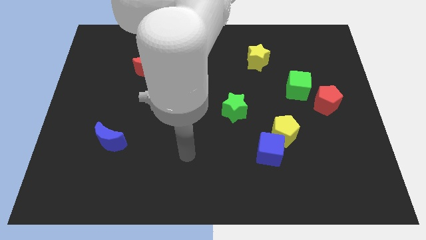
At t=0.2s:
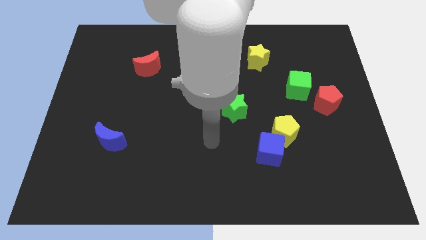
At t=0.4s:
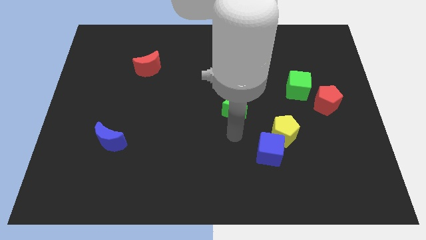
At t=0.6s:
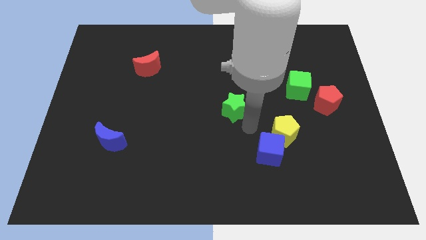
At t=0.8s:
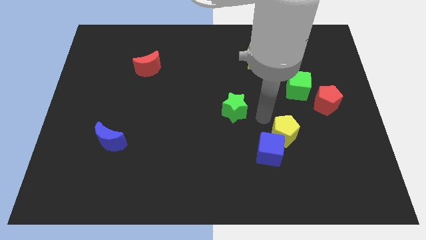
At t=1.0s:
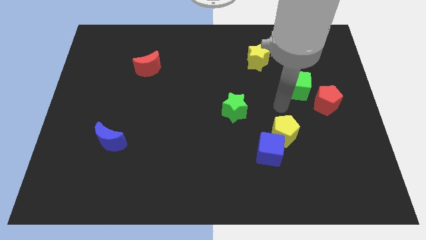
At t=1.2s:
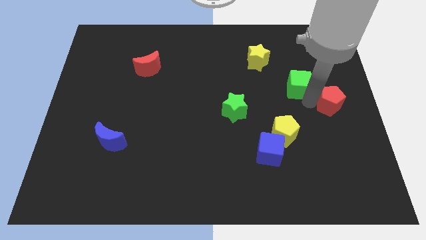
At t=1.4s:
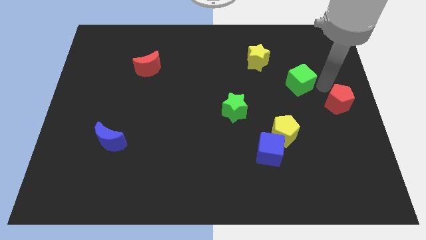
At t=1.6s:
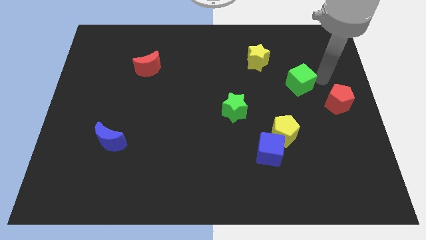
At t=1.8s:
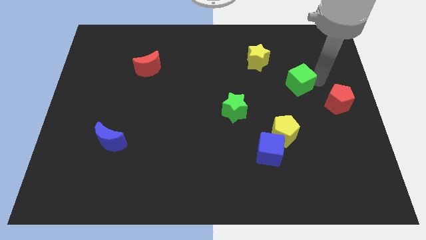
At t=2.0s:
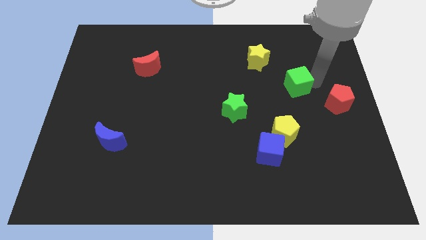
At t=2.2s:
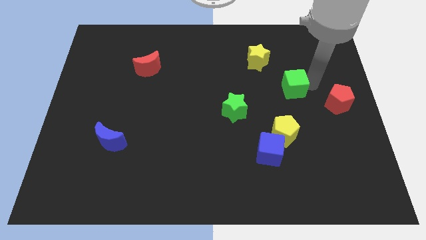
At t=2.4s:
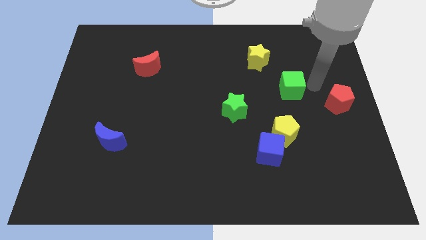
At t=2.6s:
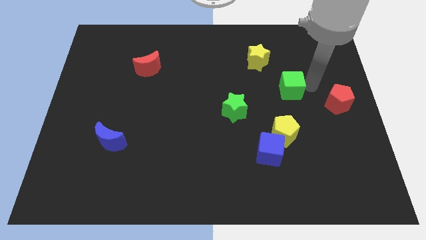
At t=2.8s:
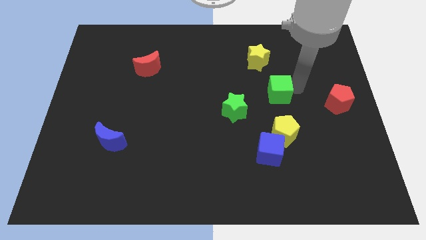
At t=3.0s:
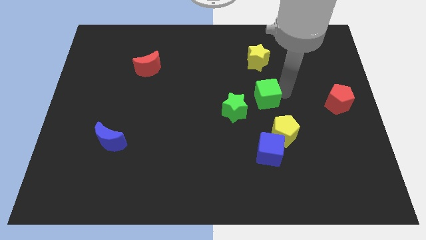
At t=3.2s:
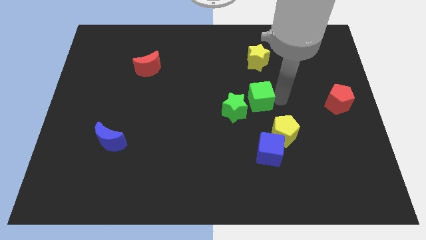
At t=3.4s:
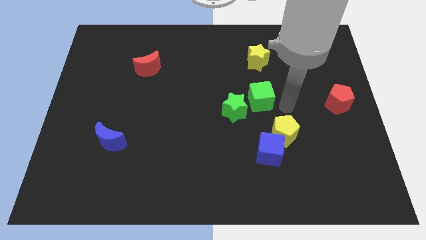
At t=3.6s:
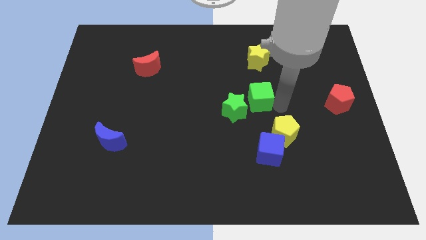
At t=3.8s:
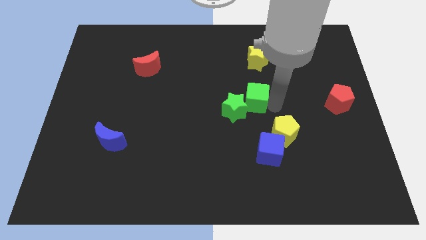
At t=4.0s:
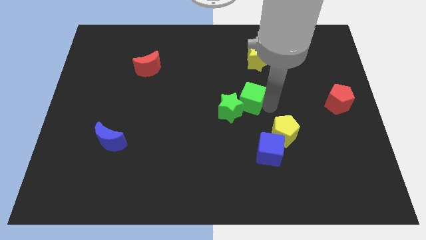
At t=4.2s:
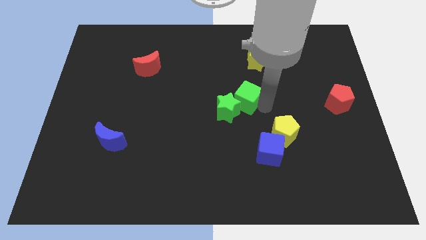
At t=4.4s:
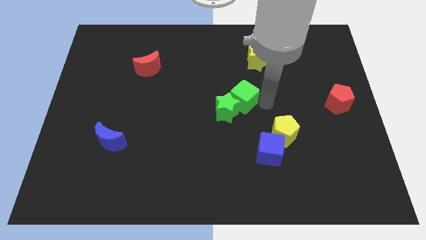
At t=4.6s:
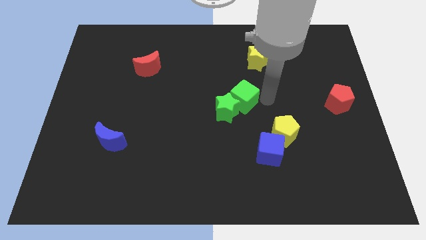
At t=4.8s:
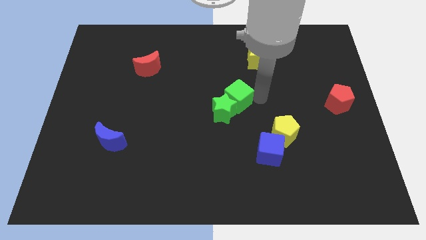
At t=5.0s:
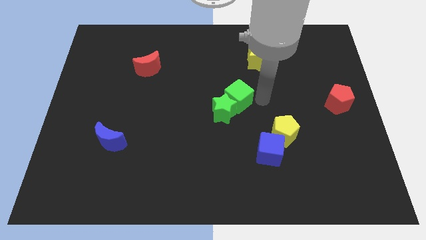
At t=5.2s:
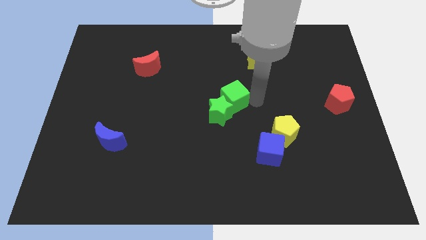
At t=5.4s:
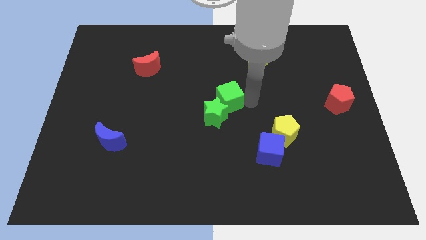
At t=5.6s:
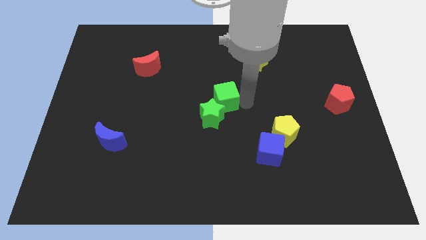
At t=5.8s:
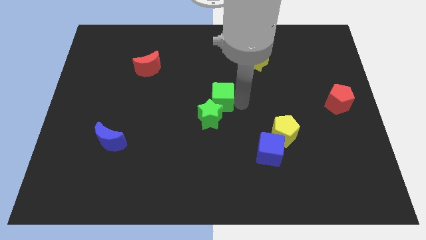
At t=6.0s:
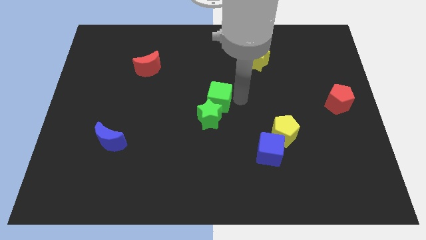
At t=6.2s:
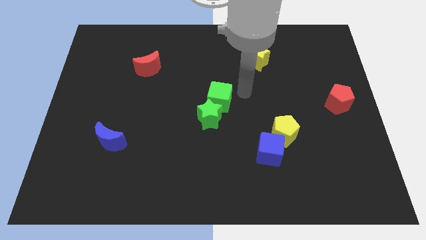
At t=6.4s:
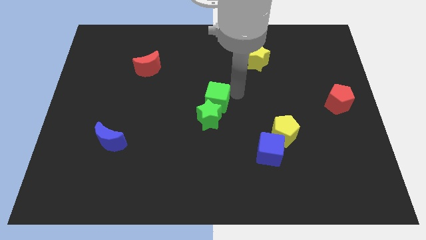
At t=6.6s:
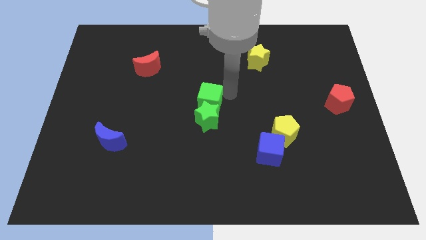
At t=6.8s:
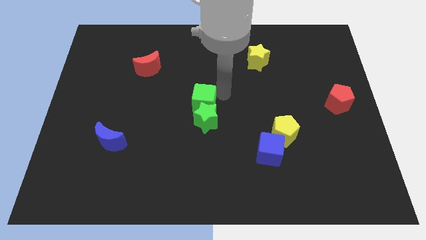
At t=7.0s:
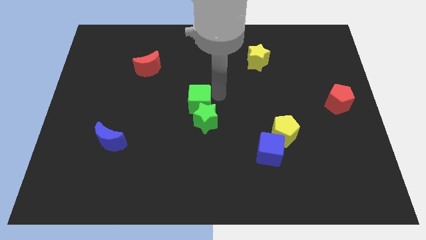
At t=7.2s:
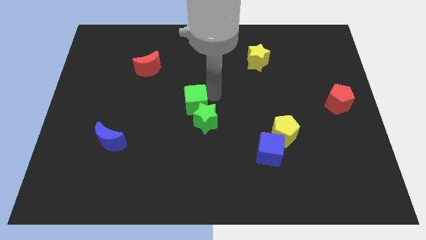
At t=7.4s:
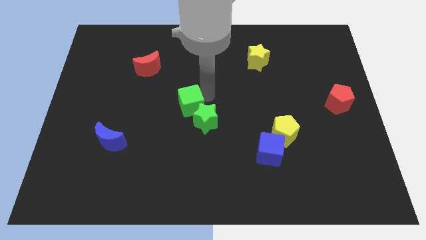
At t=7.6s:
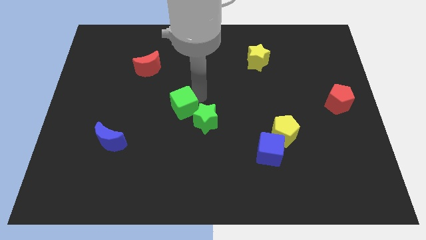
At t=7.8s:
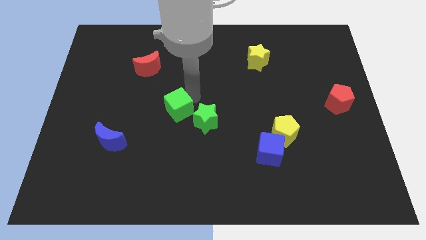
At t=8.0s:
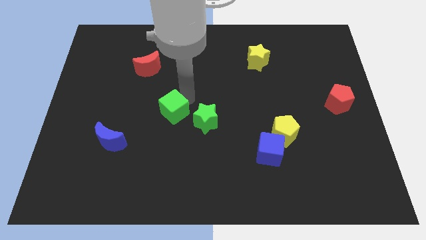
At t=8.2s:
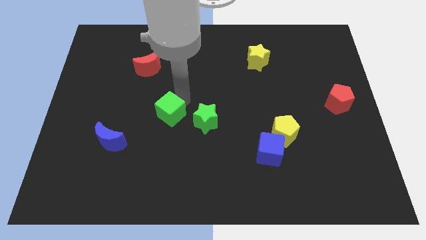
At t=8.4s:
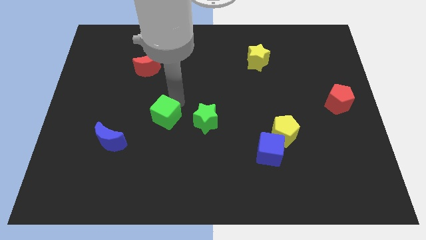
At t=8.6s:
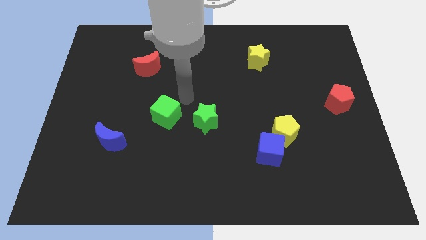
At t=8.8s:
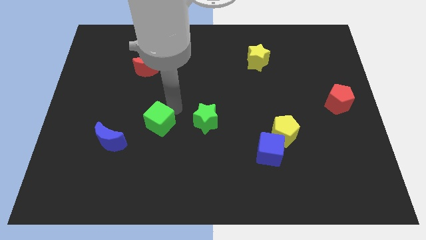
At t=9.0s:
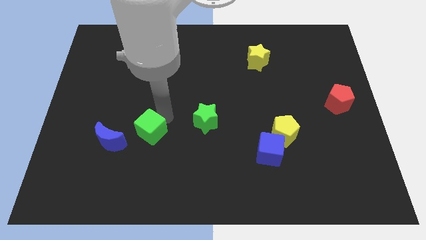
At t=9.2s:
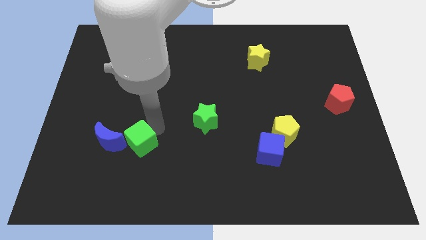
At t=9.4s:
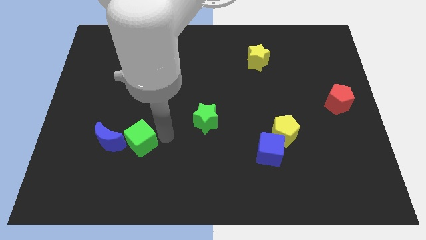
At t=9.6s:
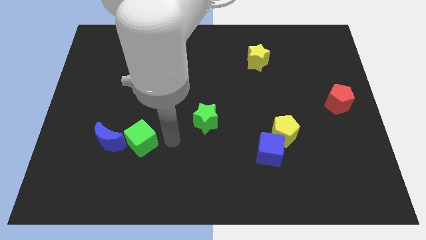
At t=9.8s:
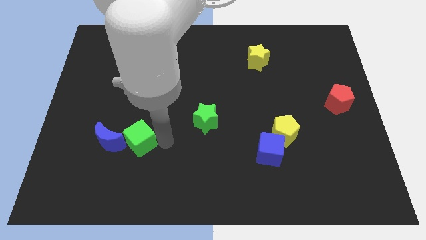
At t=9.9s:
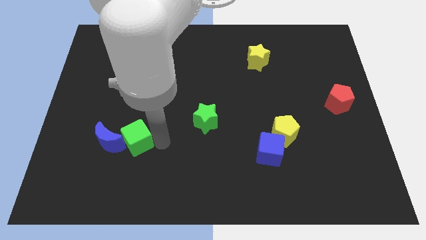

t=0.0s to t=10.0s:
slide the green cube towards the blue moon

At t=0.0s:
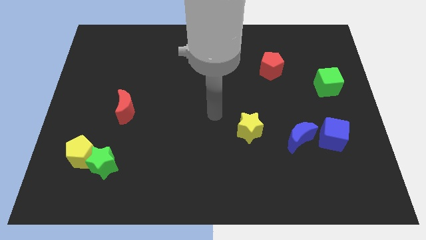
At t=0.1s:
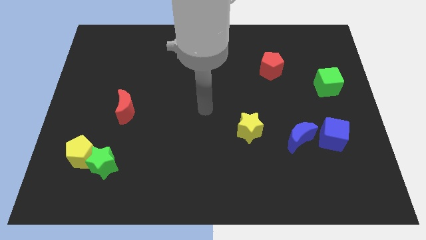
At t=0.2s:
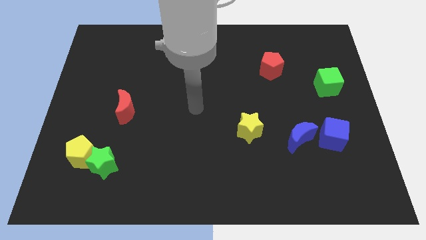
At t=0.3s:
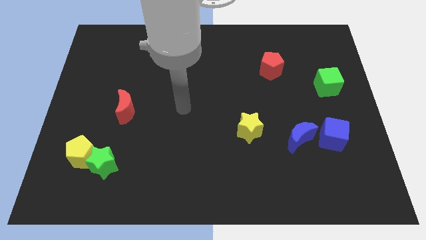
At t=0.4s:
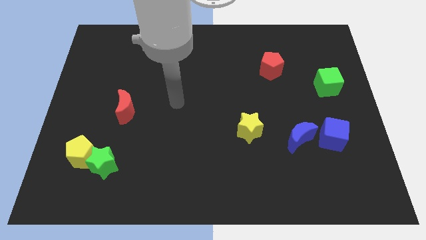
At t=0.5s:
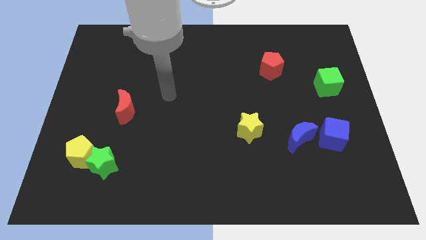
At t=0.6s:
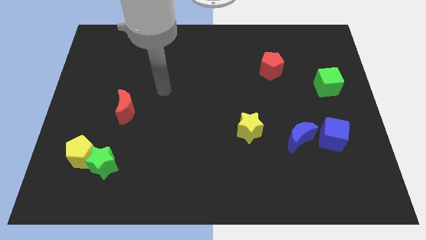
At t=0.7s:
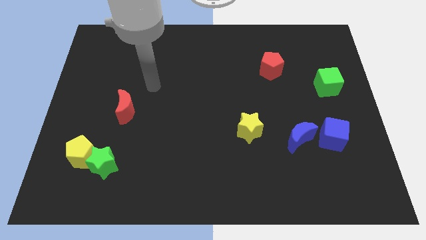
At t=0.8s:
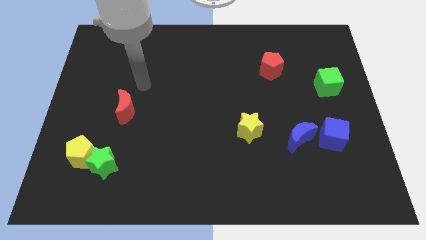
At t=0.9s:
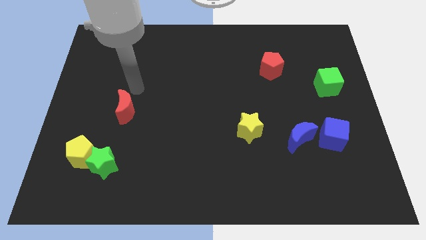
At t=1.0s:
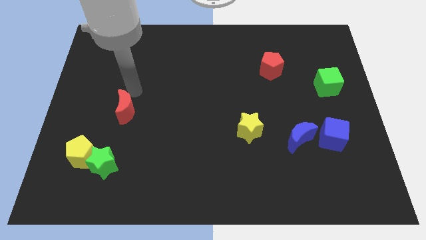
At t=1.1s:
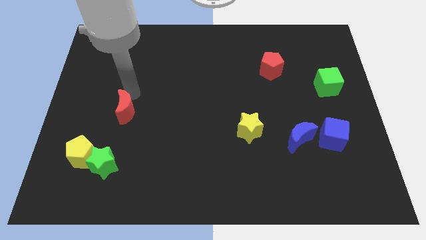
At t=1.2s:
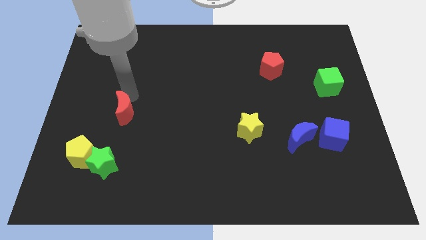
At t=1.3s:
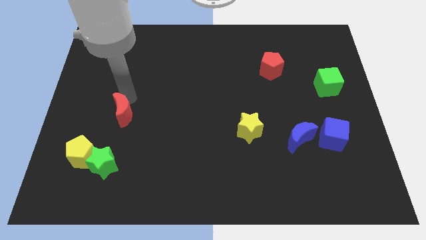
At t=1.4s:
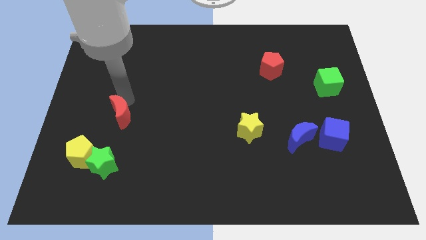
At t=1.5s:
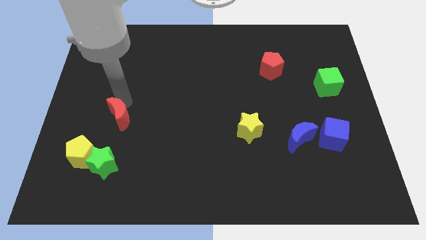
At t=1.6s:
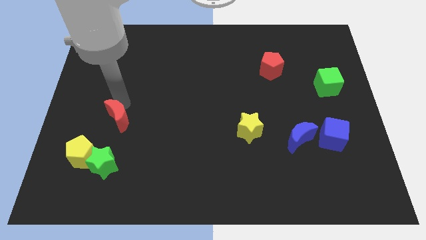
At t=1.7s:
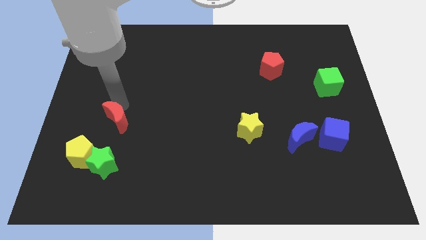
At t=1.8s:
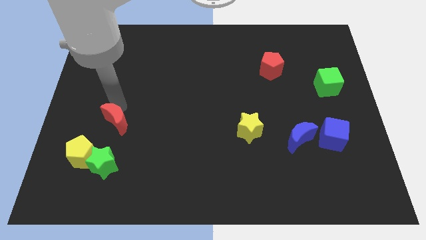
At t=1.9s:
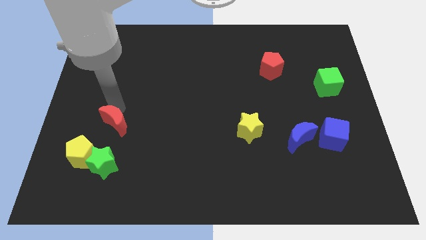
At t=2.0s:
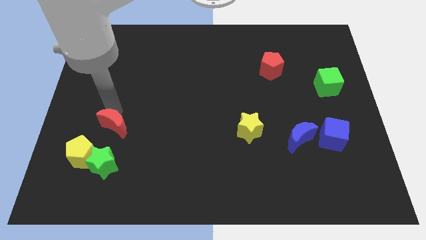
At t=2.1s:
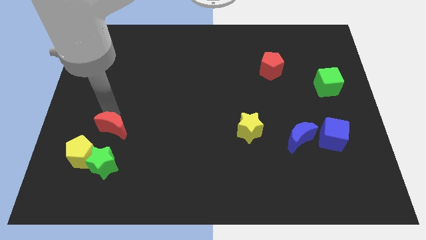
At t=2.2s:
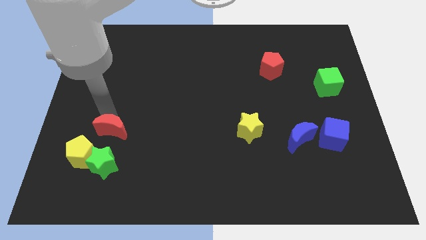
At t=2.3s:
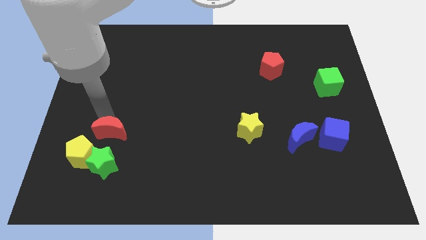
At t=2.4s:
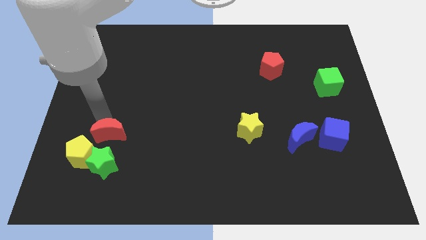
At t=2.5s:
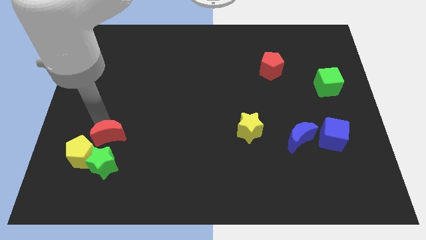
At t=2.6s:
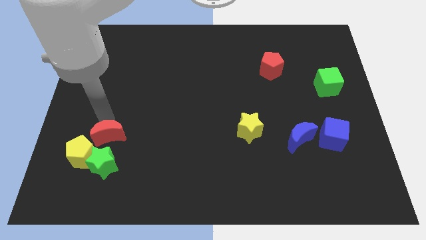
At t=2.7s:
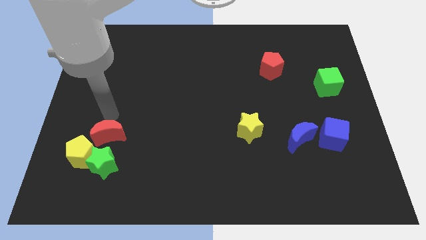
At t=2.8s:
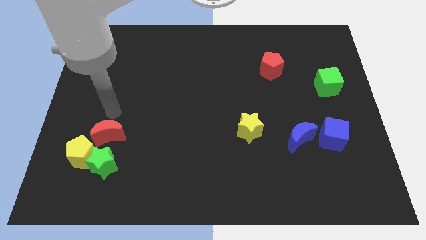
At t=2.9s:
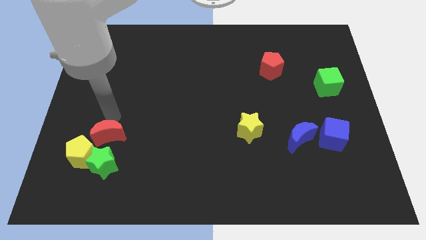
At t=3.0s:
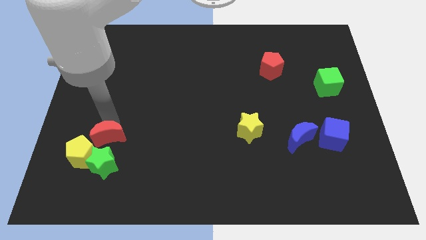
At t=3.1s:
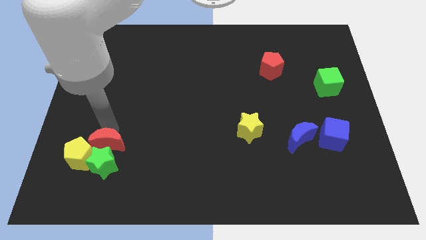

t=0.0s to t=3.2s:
push the red moon to the green star
